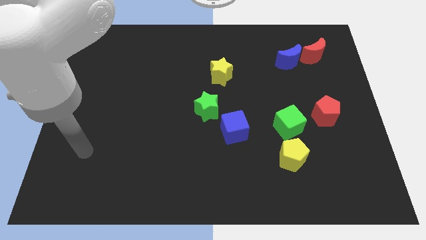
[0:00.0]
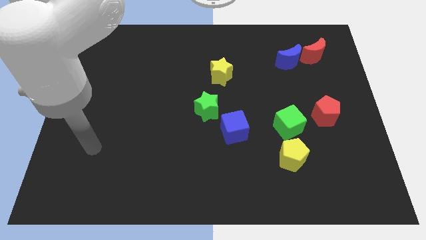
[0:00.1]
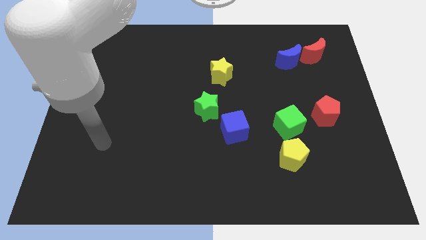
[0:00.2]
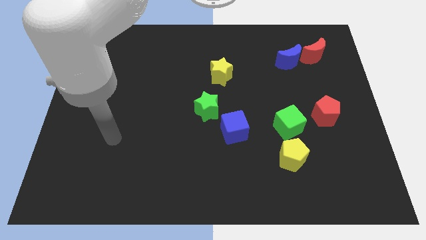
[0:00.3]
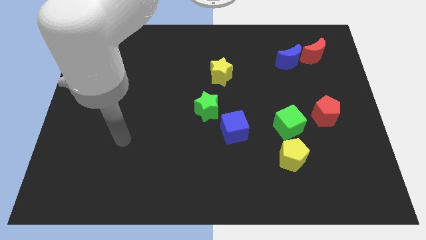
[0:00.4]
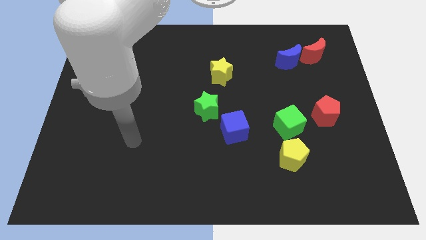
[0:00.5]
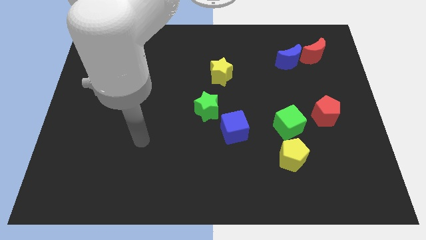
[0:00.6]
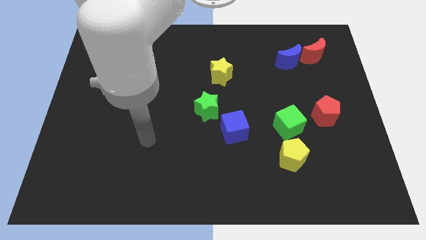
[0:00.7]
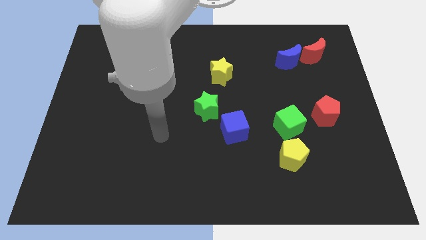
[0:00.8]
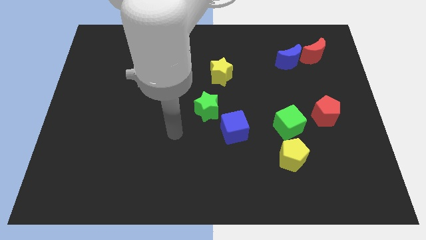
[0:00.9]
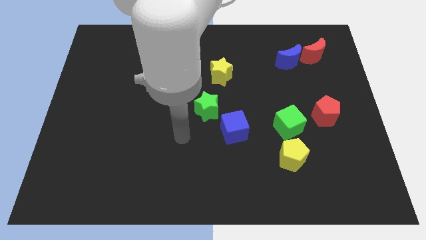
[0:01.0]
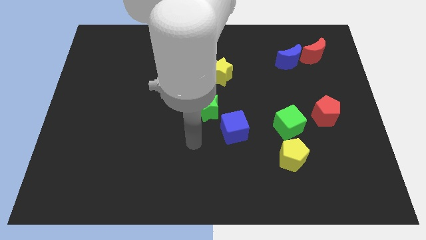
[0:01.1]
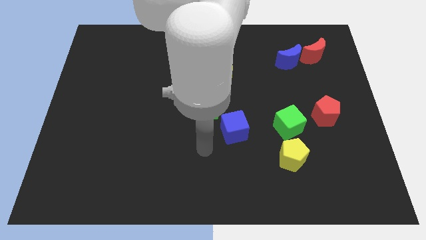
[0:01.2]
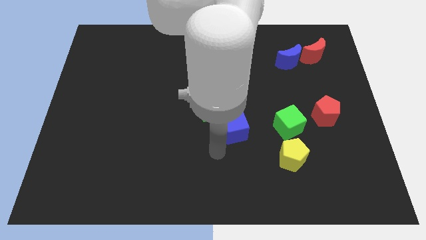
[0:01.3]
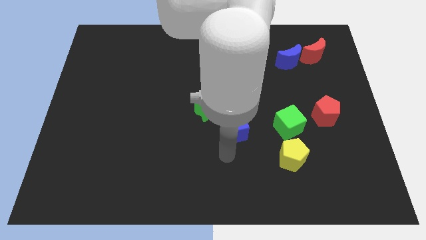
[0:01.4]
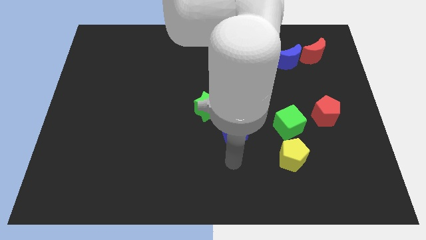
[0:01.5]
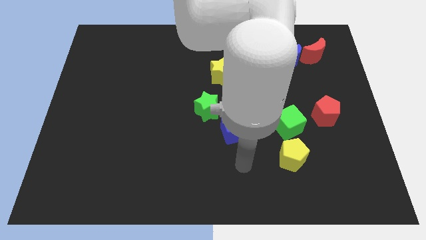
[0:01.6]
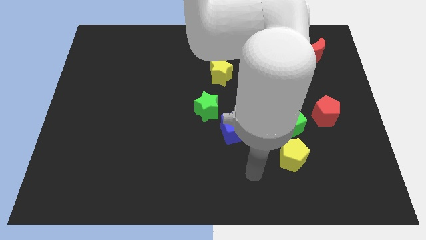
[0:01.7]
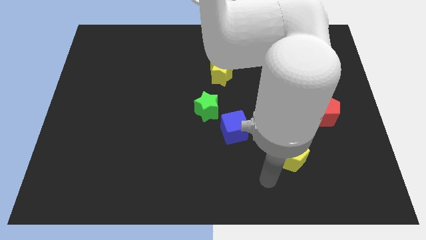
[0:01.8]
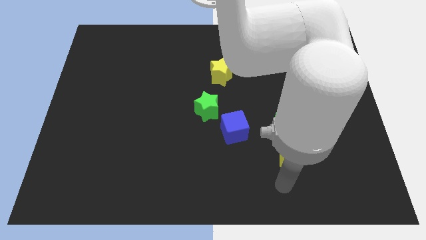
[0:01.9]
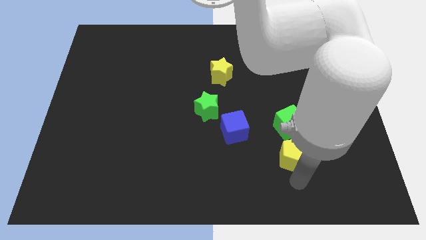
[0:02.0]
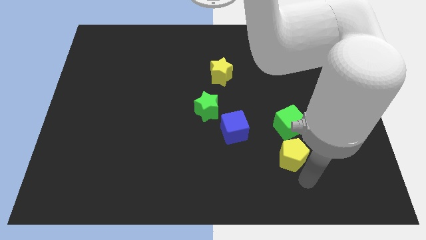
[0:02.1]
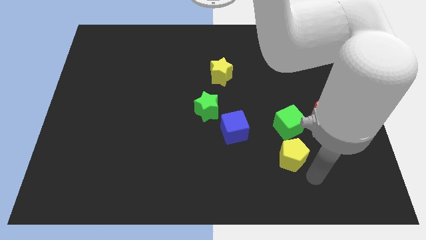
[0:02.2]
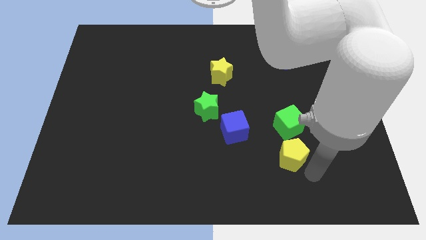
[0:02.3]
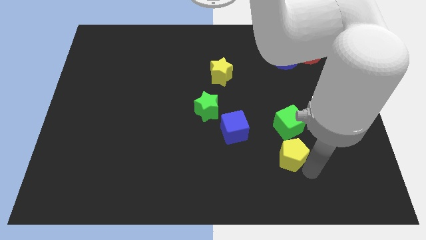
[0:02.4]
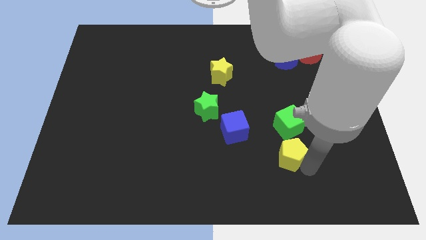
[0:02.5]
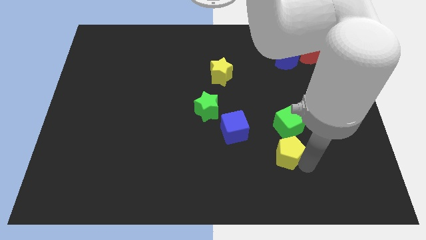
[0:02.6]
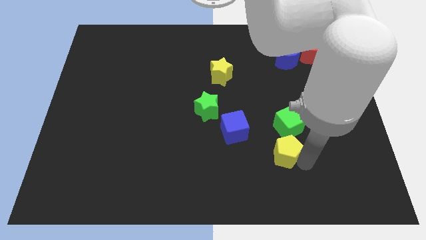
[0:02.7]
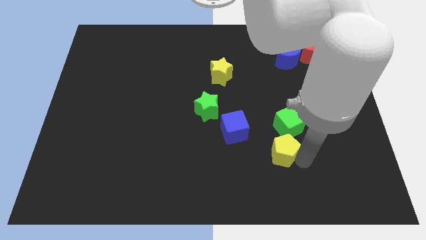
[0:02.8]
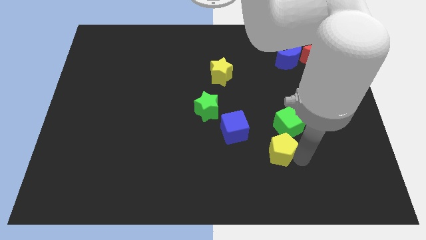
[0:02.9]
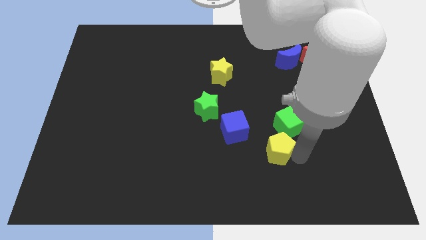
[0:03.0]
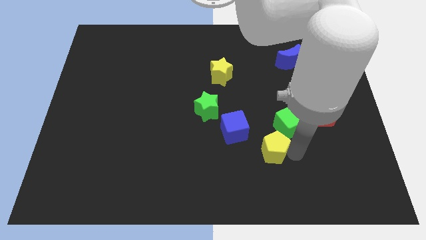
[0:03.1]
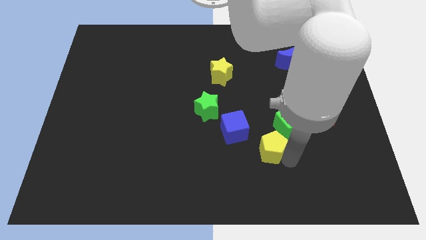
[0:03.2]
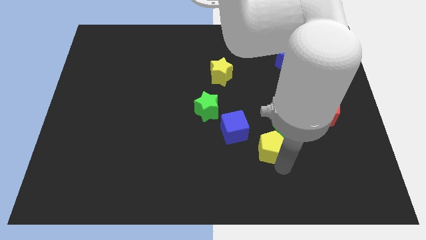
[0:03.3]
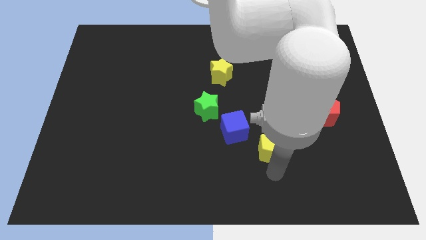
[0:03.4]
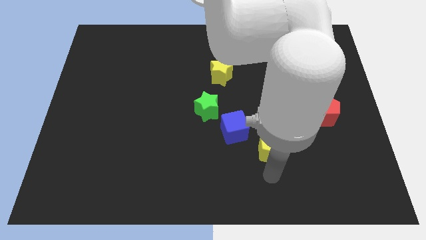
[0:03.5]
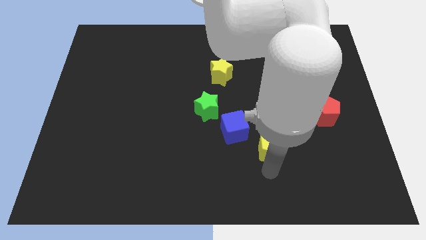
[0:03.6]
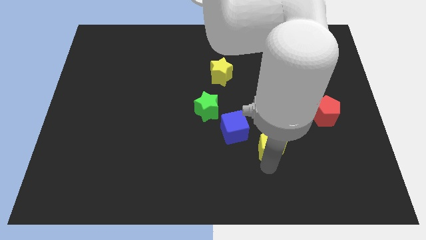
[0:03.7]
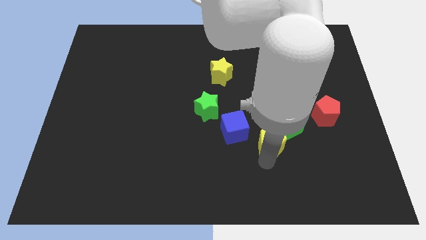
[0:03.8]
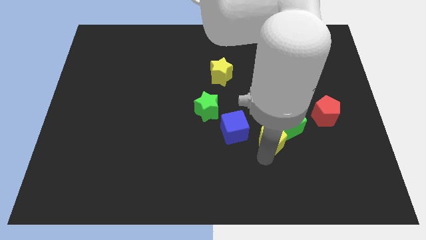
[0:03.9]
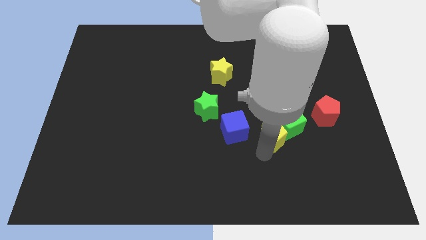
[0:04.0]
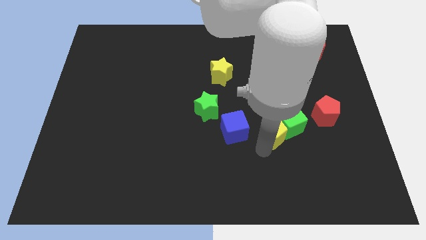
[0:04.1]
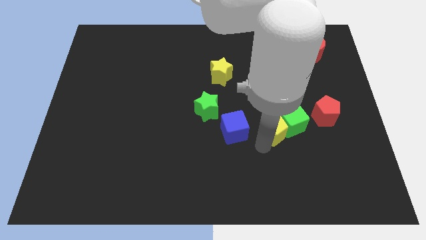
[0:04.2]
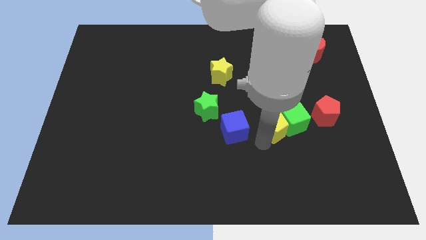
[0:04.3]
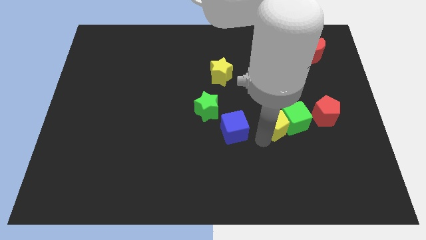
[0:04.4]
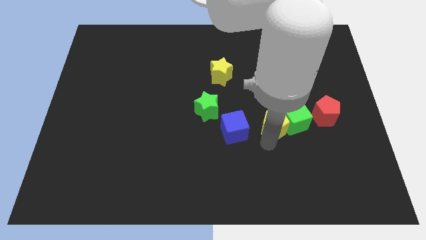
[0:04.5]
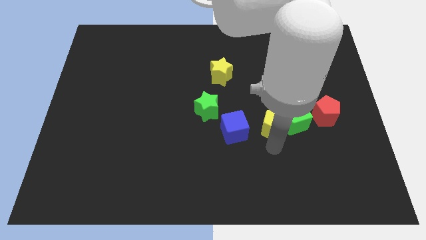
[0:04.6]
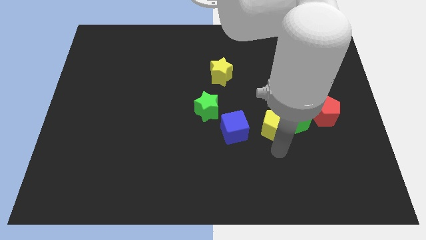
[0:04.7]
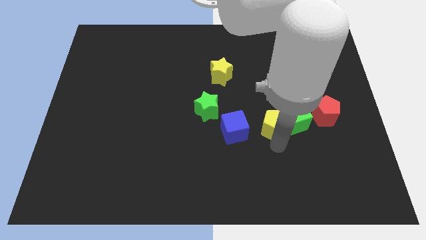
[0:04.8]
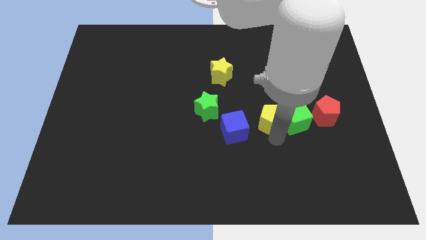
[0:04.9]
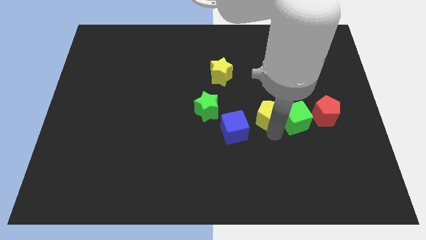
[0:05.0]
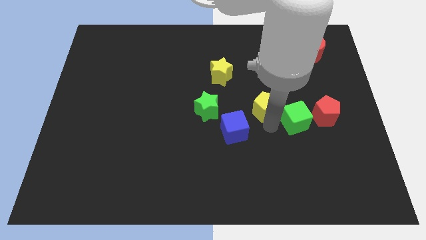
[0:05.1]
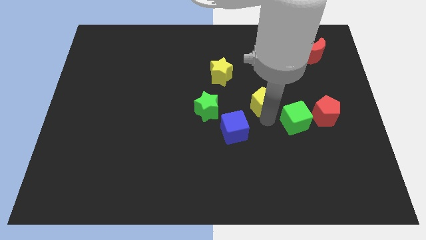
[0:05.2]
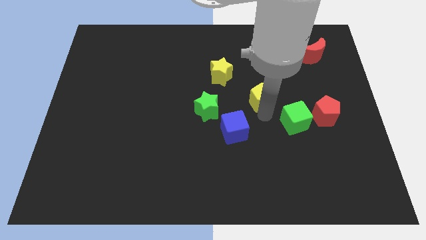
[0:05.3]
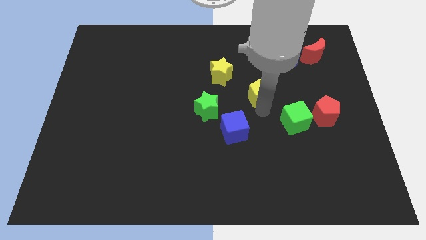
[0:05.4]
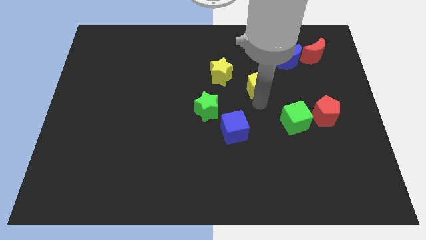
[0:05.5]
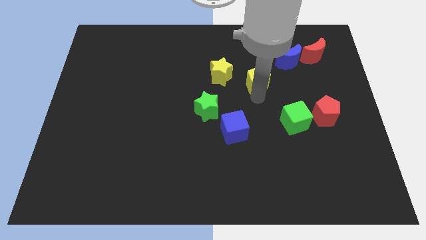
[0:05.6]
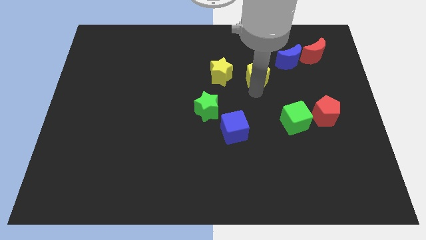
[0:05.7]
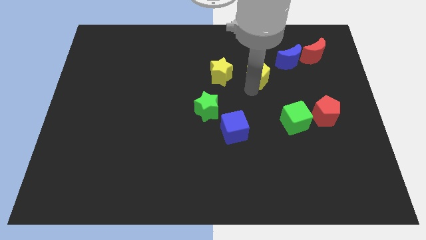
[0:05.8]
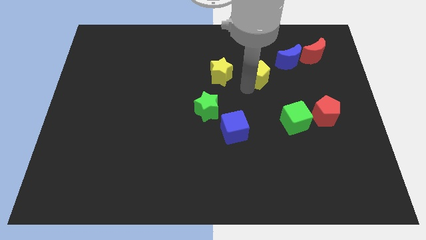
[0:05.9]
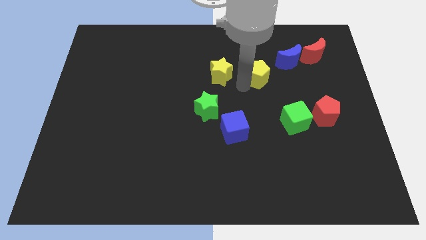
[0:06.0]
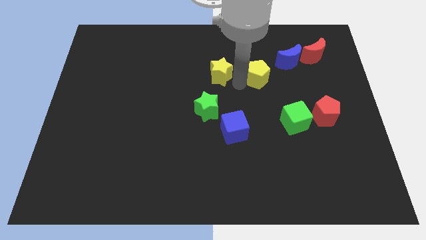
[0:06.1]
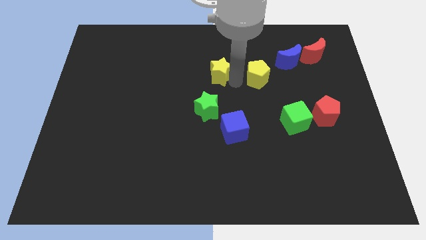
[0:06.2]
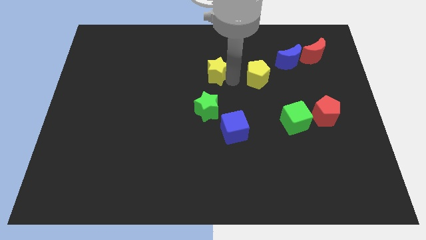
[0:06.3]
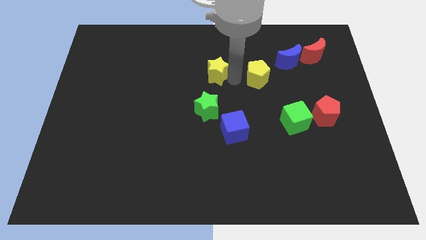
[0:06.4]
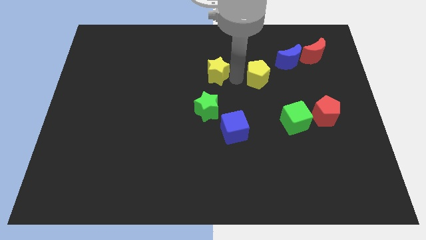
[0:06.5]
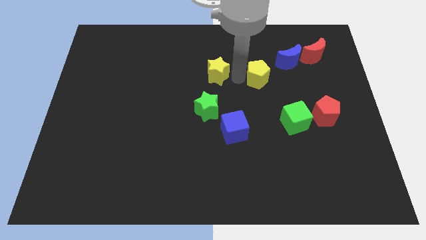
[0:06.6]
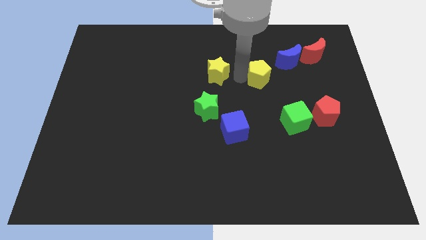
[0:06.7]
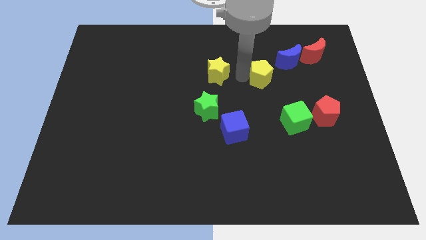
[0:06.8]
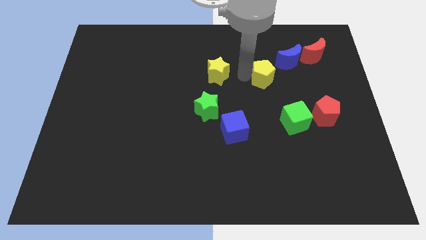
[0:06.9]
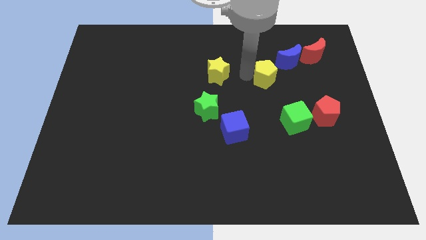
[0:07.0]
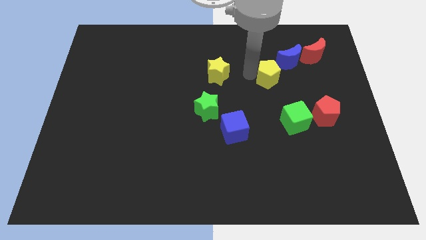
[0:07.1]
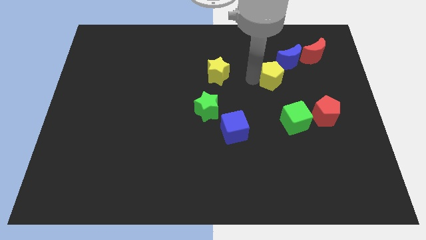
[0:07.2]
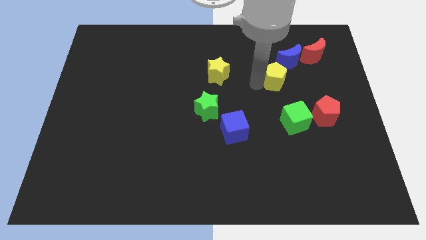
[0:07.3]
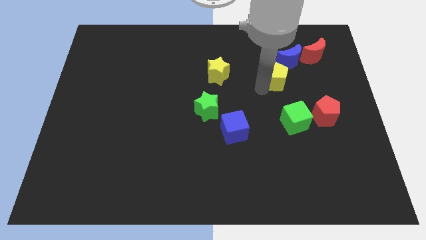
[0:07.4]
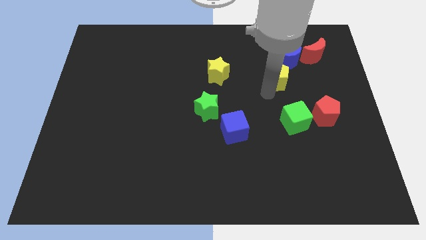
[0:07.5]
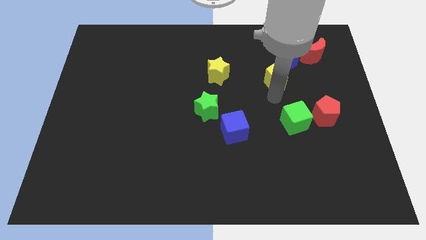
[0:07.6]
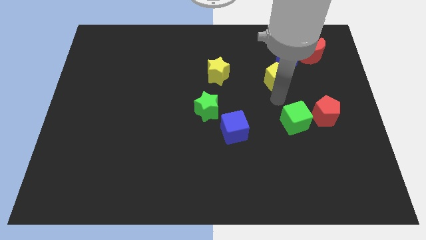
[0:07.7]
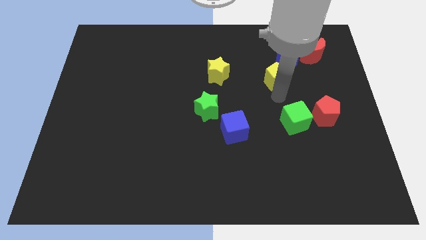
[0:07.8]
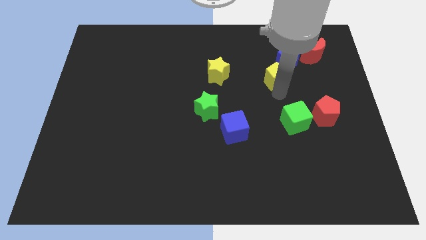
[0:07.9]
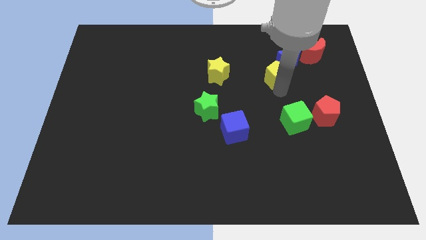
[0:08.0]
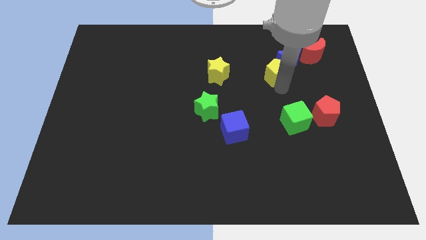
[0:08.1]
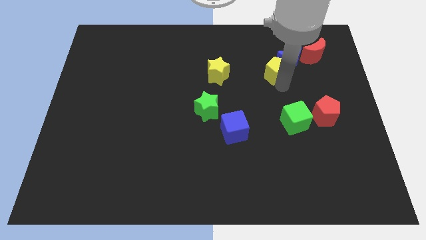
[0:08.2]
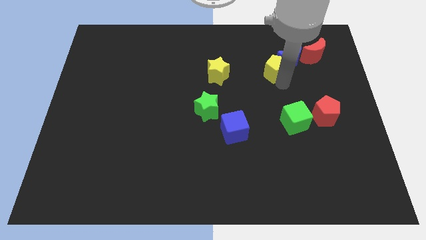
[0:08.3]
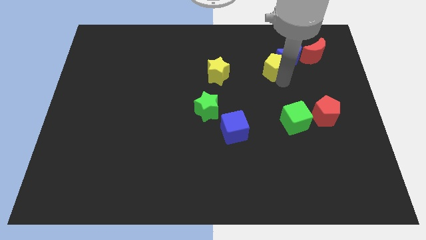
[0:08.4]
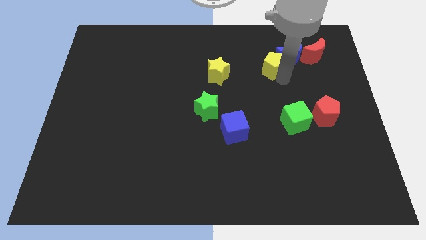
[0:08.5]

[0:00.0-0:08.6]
slide the yellow pentagon to the left side of the red moon
